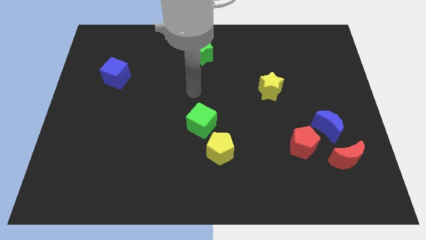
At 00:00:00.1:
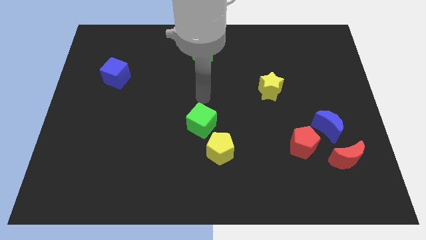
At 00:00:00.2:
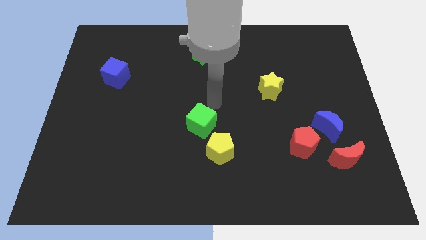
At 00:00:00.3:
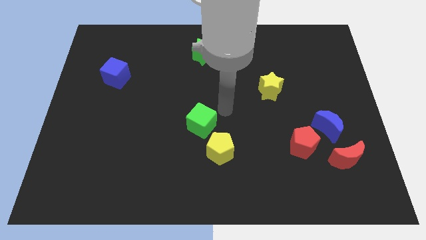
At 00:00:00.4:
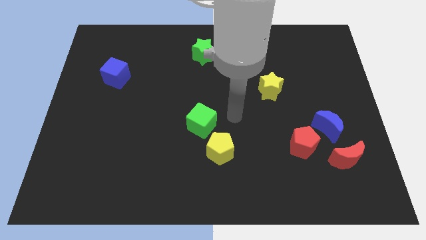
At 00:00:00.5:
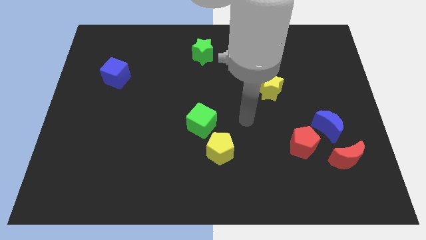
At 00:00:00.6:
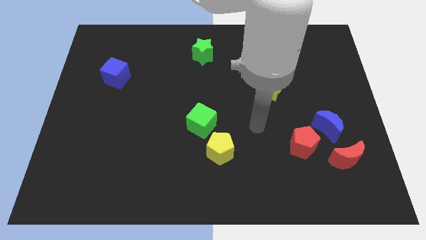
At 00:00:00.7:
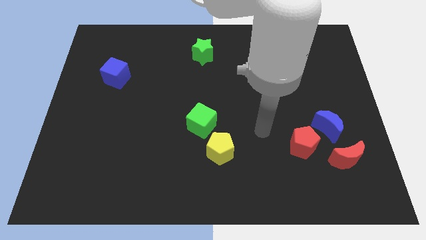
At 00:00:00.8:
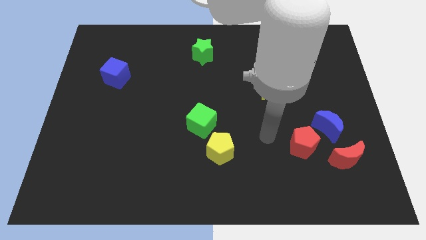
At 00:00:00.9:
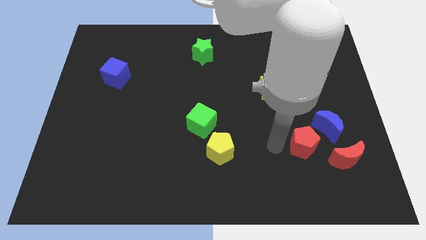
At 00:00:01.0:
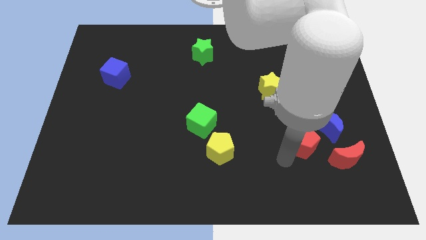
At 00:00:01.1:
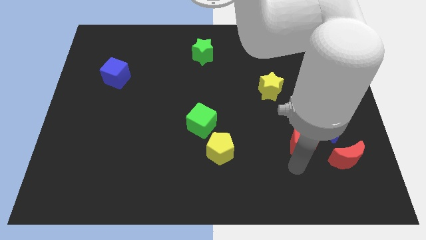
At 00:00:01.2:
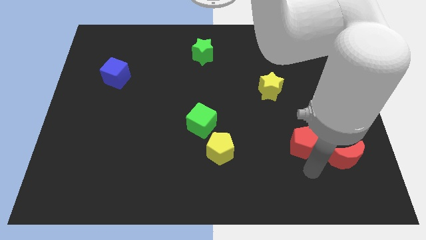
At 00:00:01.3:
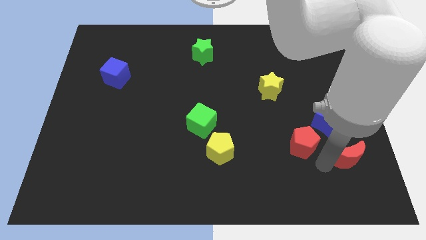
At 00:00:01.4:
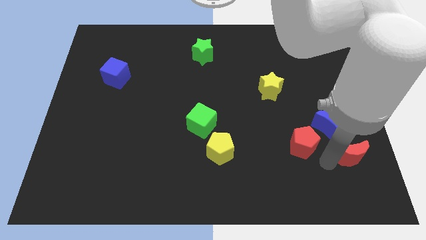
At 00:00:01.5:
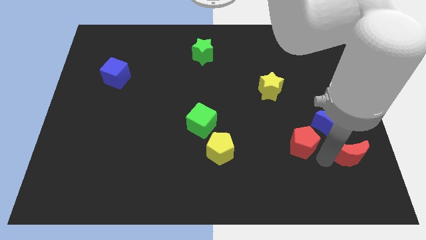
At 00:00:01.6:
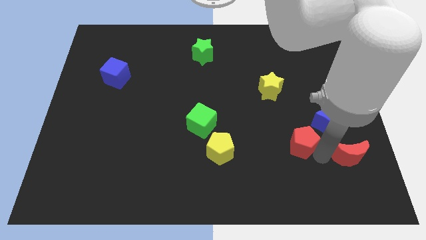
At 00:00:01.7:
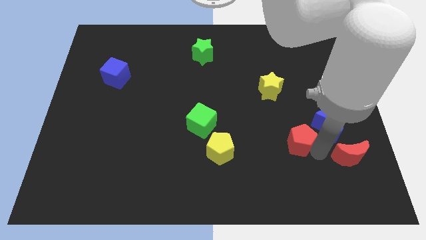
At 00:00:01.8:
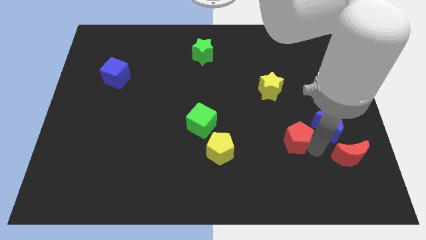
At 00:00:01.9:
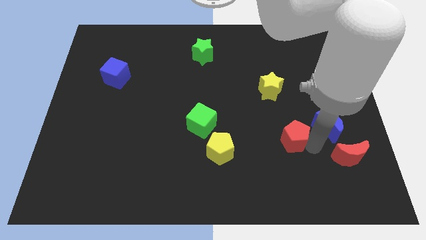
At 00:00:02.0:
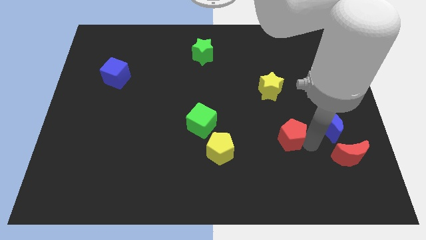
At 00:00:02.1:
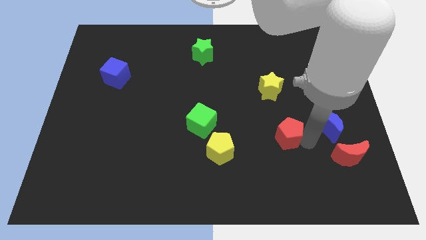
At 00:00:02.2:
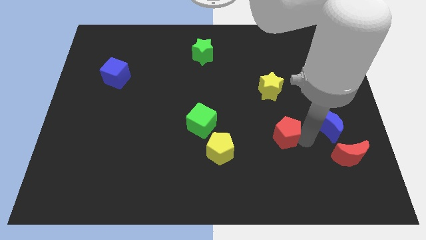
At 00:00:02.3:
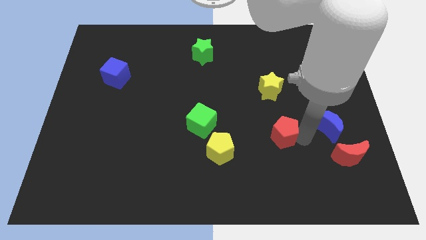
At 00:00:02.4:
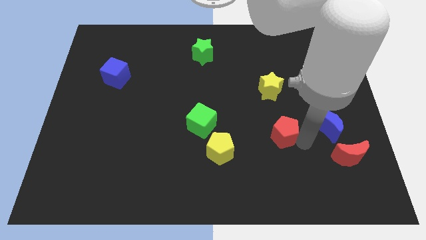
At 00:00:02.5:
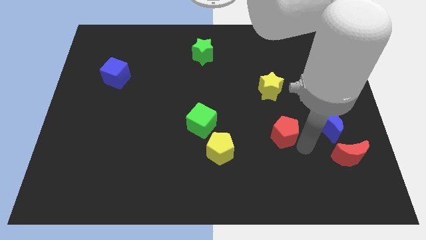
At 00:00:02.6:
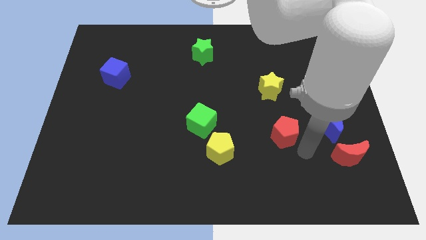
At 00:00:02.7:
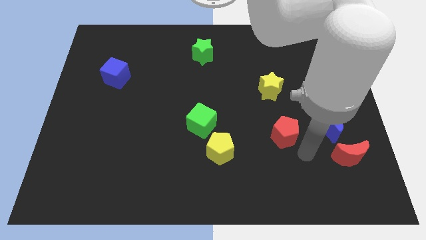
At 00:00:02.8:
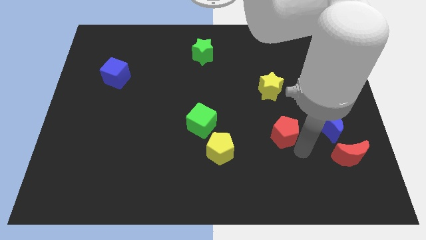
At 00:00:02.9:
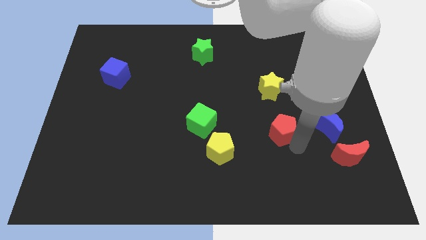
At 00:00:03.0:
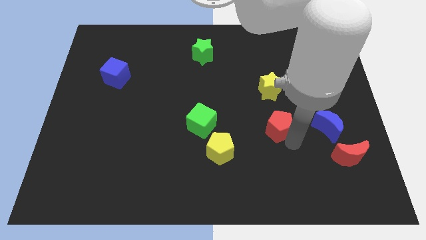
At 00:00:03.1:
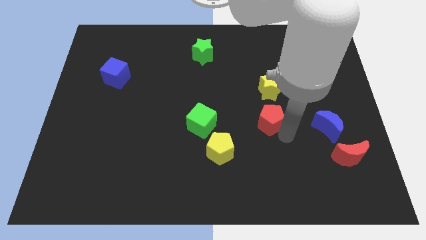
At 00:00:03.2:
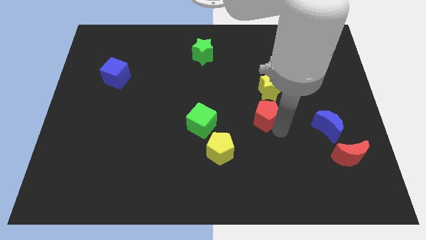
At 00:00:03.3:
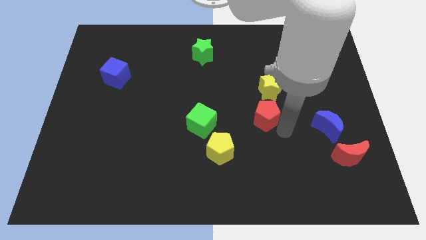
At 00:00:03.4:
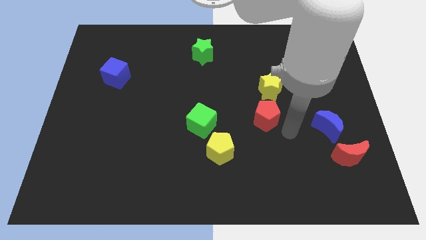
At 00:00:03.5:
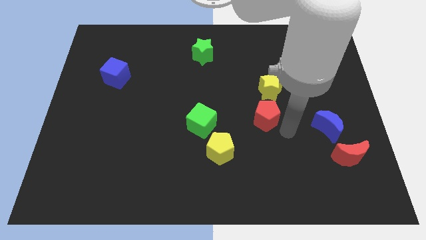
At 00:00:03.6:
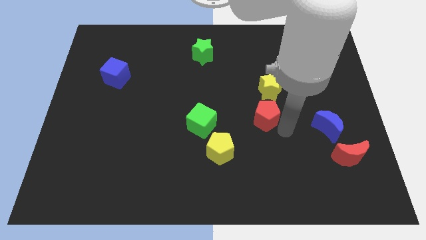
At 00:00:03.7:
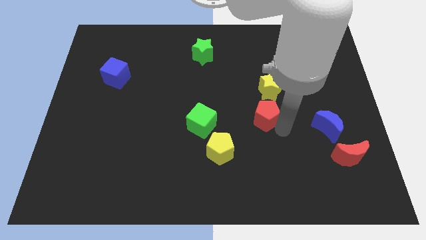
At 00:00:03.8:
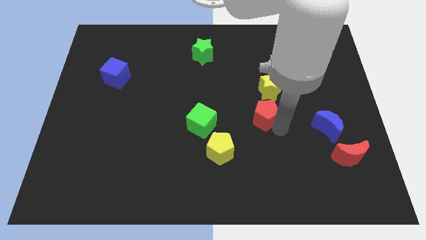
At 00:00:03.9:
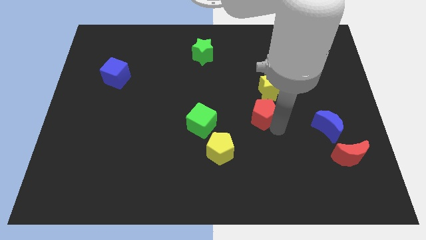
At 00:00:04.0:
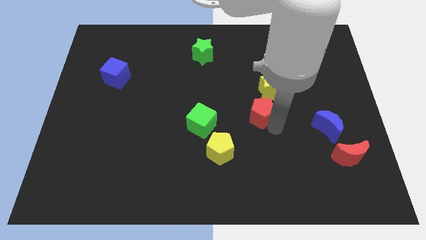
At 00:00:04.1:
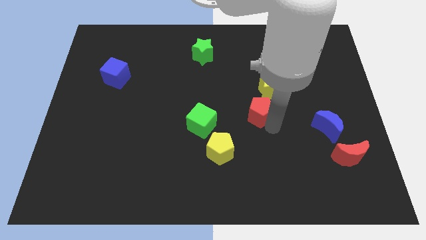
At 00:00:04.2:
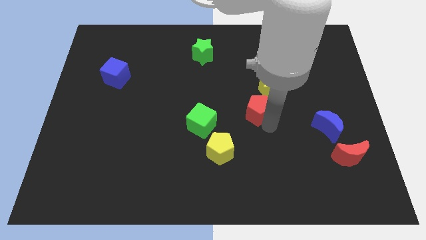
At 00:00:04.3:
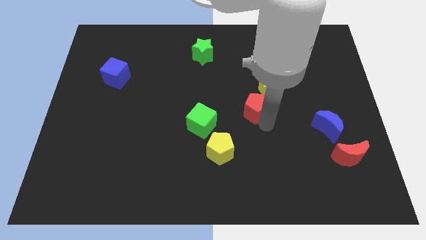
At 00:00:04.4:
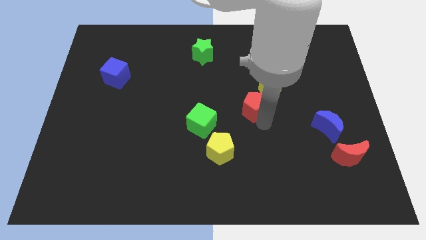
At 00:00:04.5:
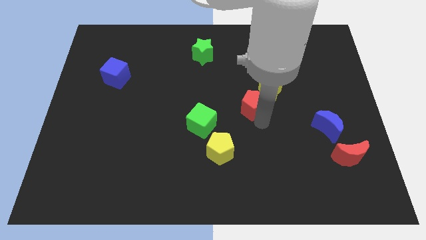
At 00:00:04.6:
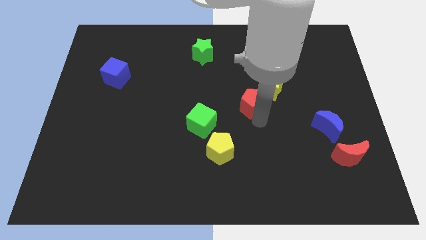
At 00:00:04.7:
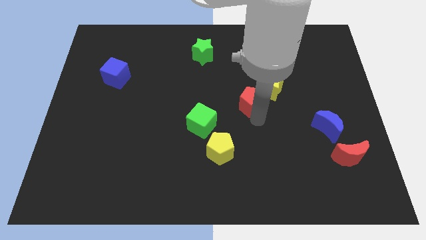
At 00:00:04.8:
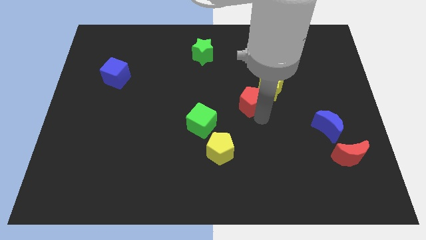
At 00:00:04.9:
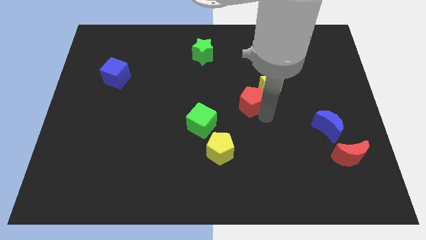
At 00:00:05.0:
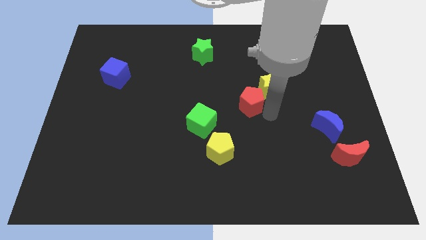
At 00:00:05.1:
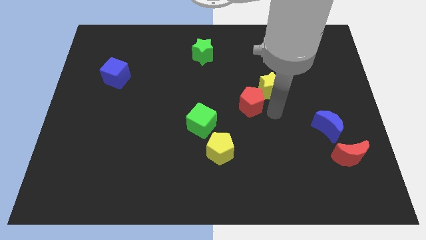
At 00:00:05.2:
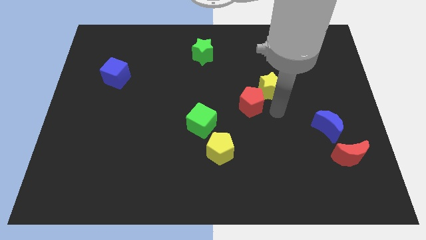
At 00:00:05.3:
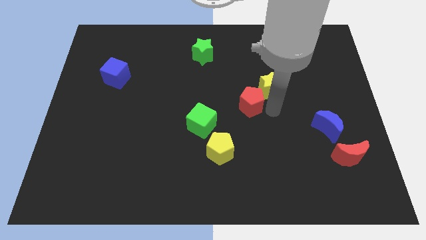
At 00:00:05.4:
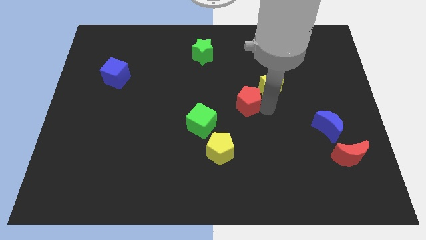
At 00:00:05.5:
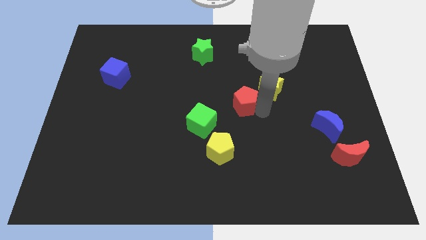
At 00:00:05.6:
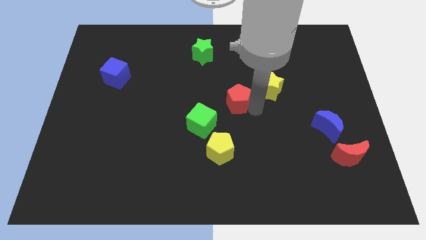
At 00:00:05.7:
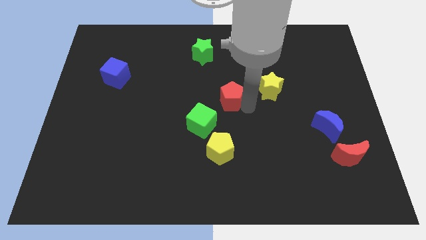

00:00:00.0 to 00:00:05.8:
slide the red pentagon up and then left

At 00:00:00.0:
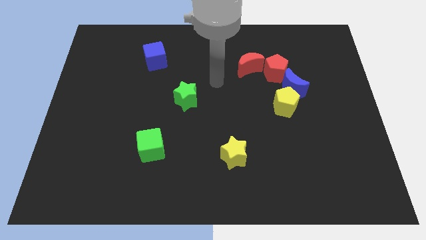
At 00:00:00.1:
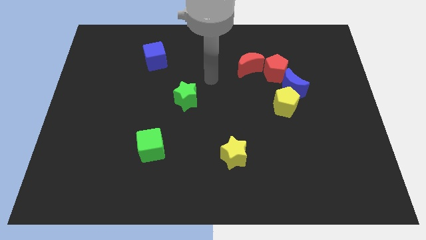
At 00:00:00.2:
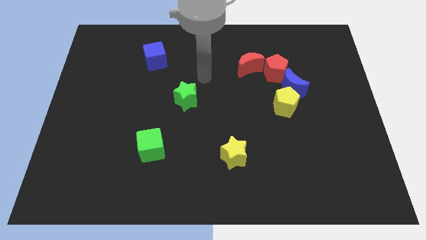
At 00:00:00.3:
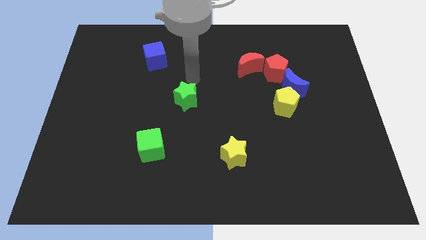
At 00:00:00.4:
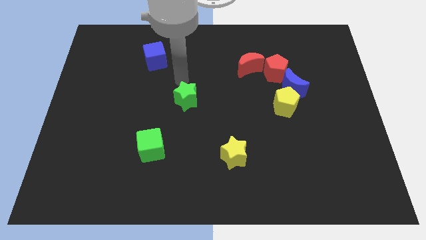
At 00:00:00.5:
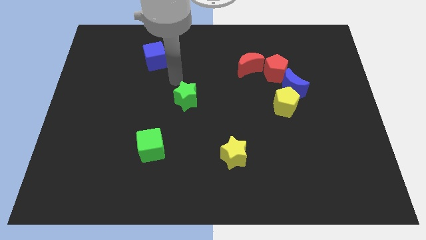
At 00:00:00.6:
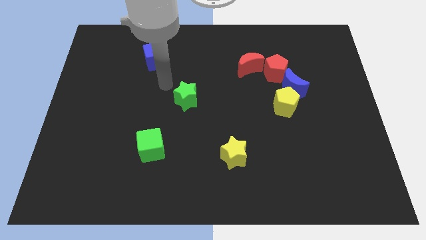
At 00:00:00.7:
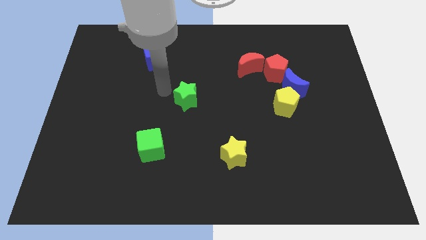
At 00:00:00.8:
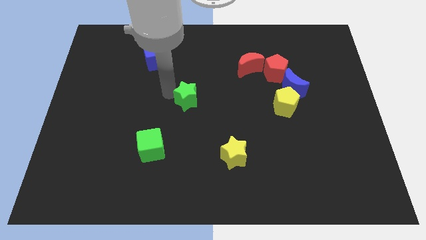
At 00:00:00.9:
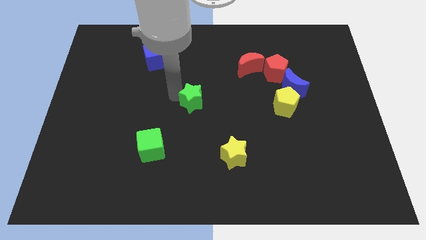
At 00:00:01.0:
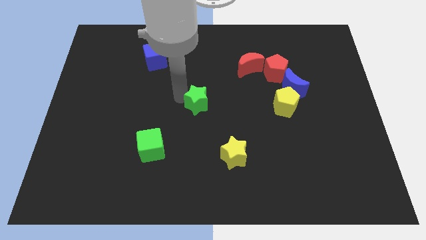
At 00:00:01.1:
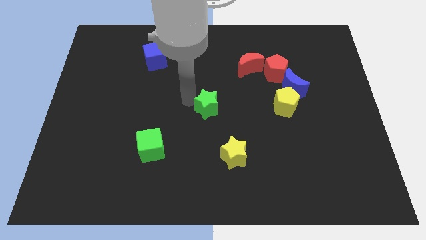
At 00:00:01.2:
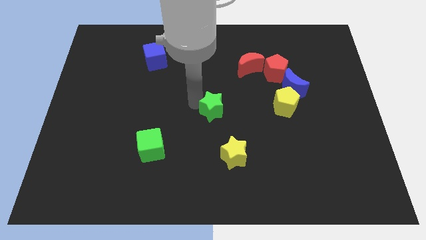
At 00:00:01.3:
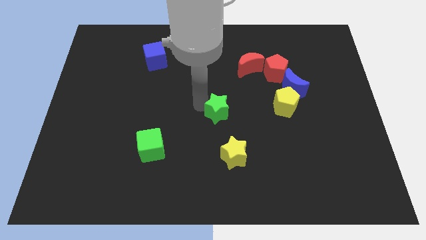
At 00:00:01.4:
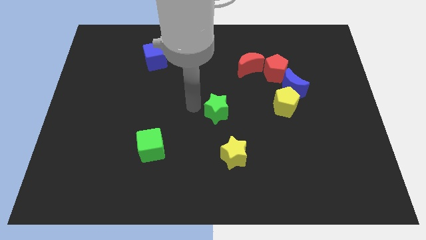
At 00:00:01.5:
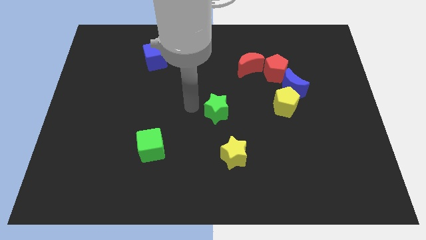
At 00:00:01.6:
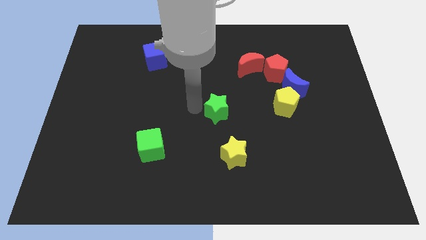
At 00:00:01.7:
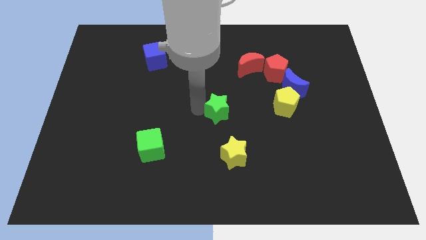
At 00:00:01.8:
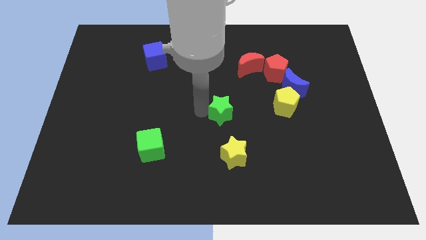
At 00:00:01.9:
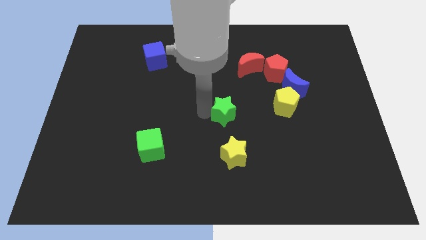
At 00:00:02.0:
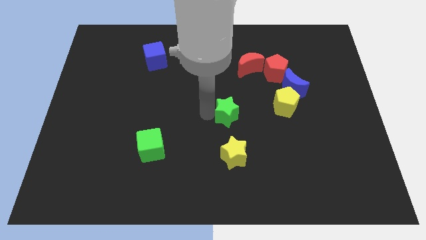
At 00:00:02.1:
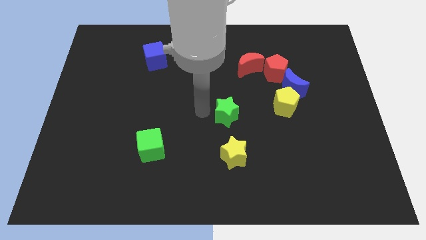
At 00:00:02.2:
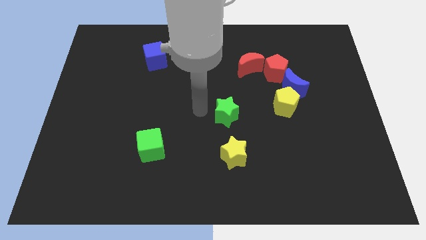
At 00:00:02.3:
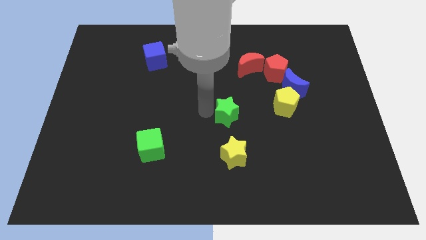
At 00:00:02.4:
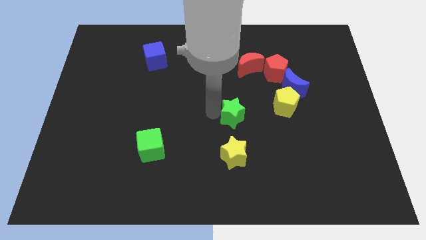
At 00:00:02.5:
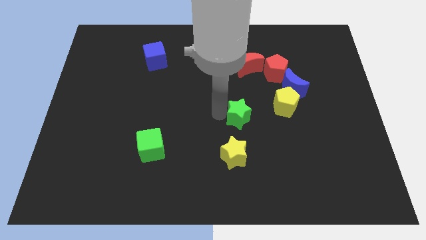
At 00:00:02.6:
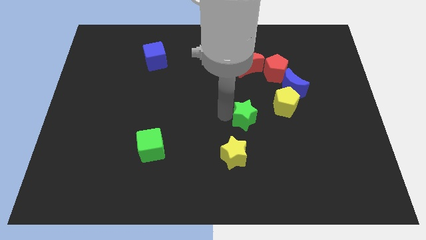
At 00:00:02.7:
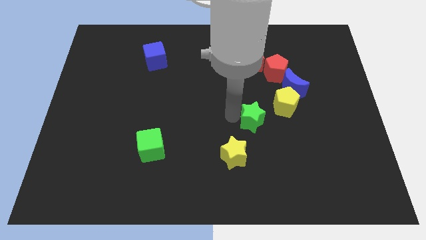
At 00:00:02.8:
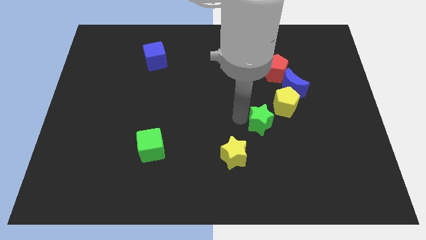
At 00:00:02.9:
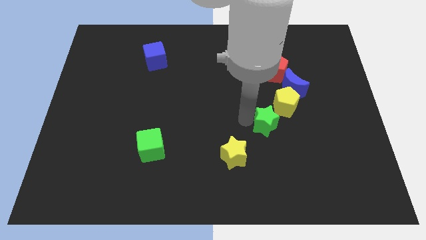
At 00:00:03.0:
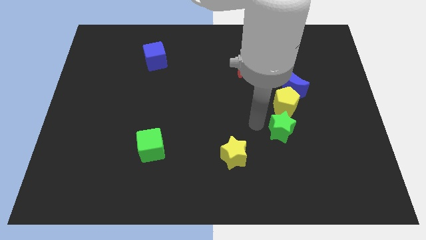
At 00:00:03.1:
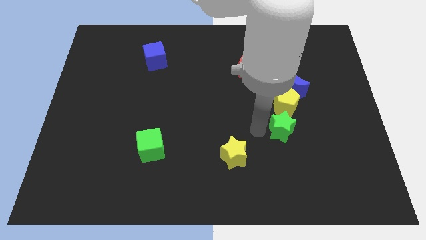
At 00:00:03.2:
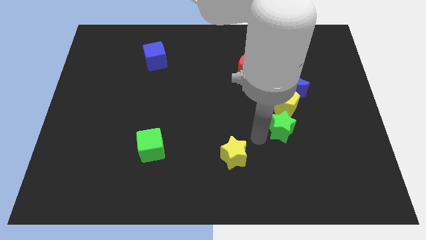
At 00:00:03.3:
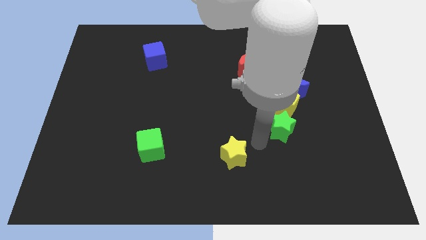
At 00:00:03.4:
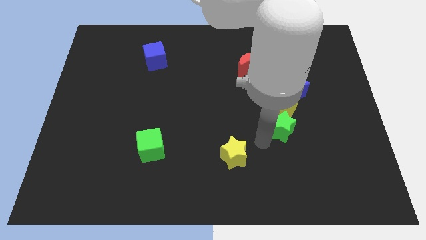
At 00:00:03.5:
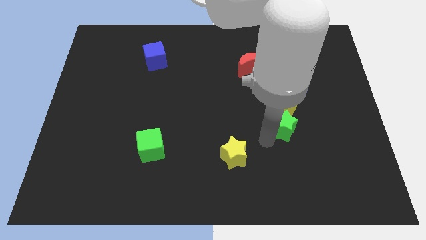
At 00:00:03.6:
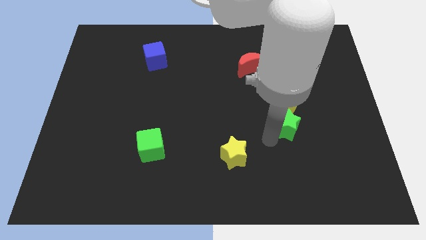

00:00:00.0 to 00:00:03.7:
slide the green star right
